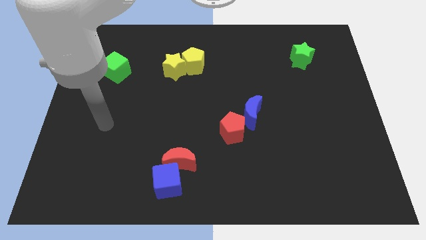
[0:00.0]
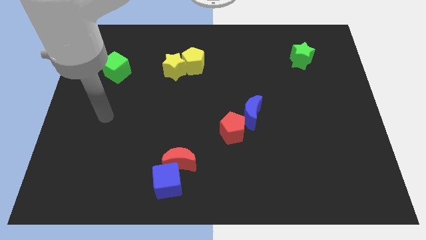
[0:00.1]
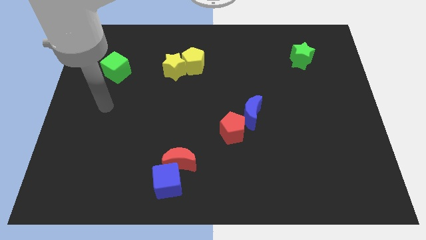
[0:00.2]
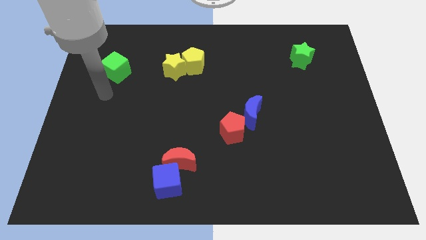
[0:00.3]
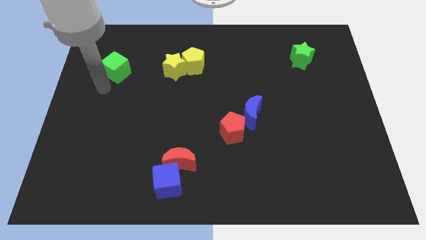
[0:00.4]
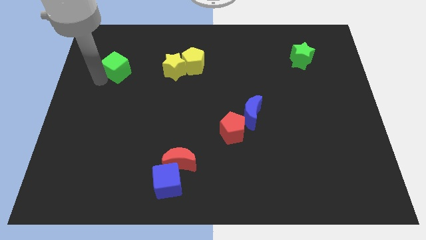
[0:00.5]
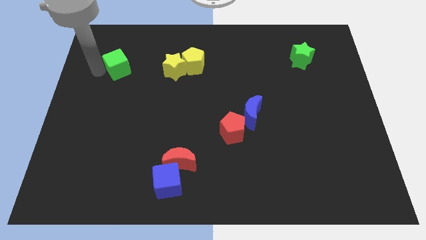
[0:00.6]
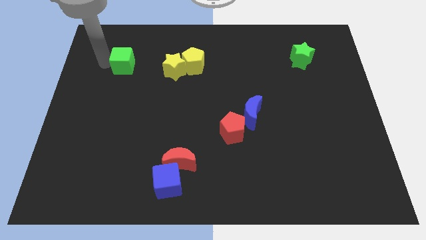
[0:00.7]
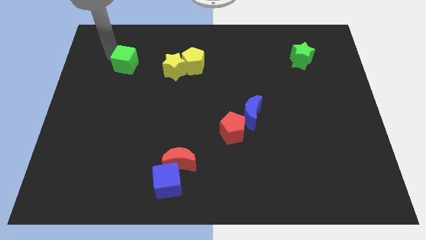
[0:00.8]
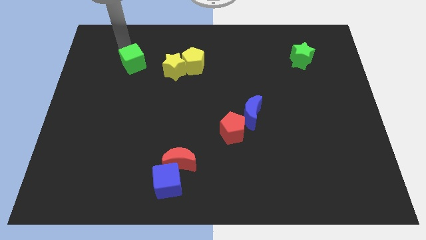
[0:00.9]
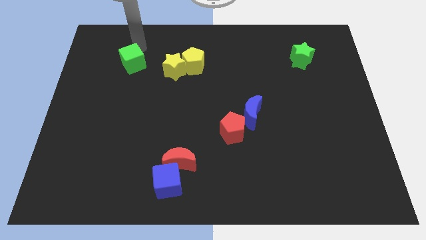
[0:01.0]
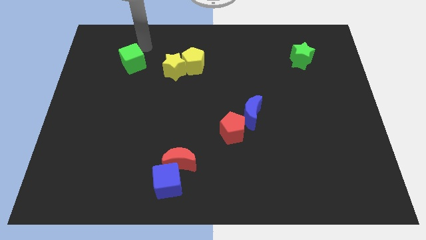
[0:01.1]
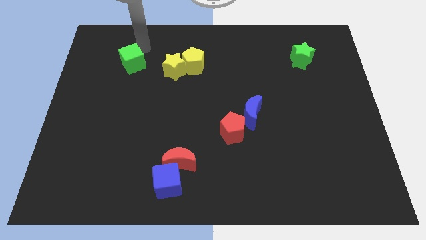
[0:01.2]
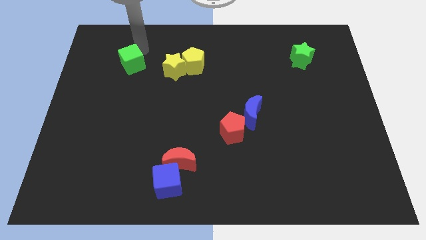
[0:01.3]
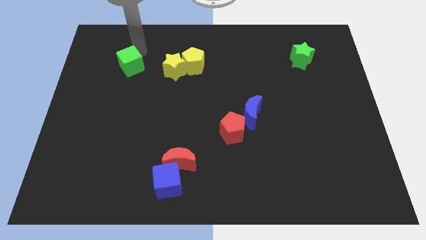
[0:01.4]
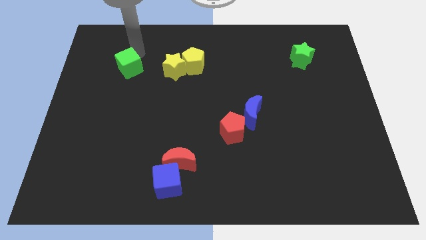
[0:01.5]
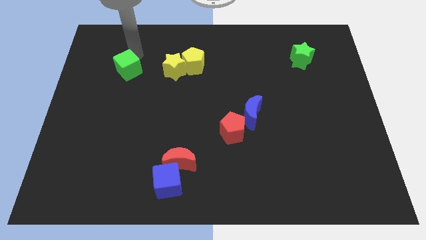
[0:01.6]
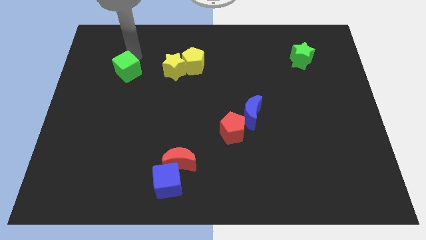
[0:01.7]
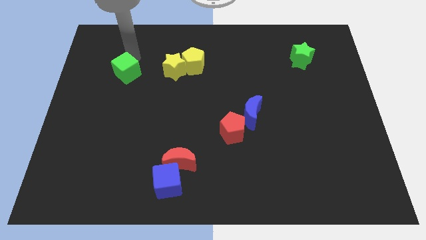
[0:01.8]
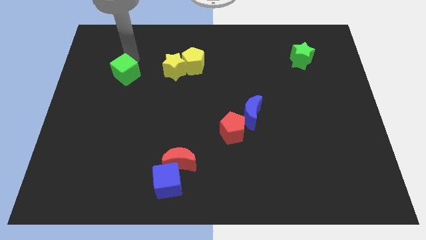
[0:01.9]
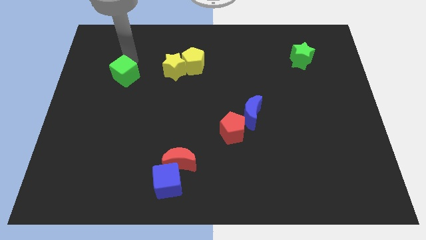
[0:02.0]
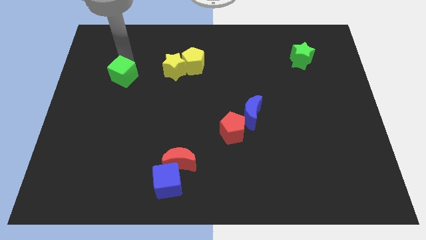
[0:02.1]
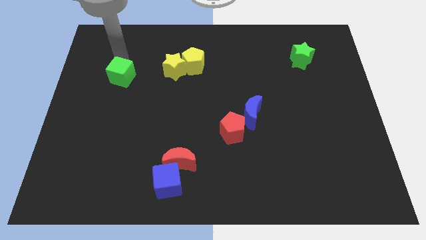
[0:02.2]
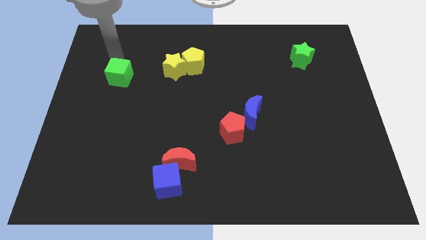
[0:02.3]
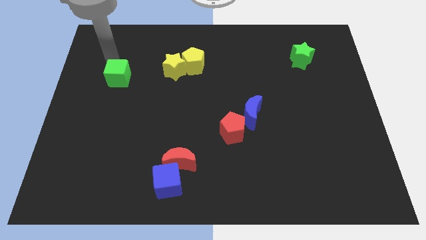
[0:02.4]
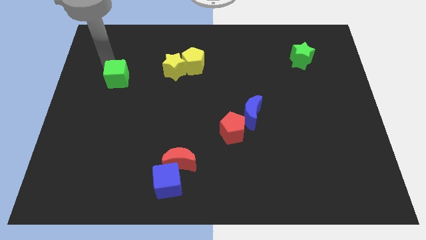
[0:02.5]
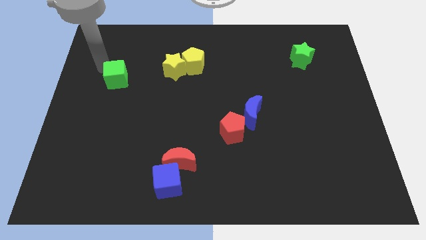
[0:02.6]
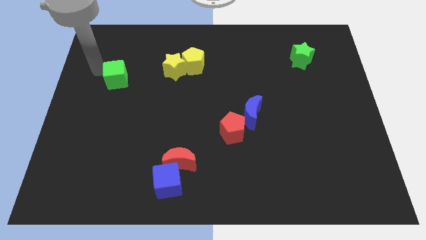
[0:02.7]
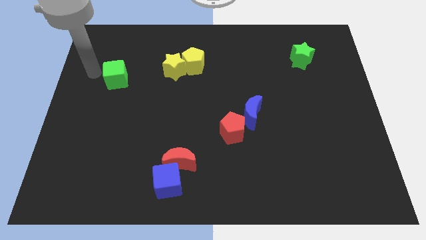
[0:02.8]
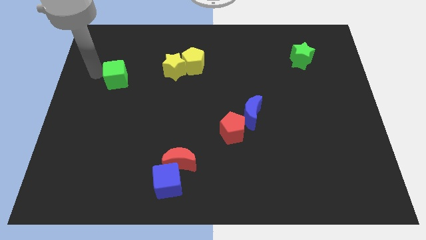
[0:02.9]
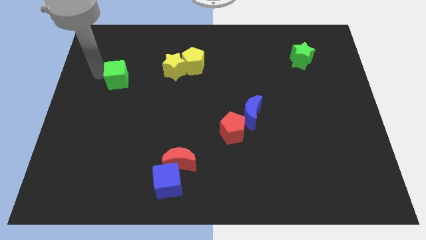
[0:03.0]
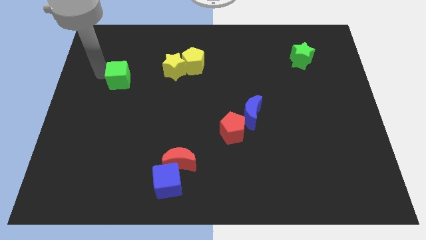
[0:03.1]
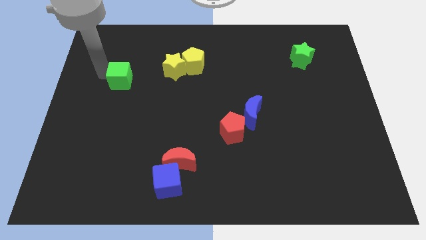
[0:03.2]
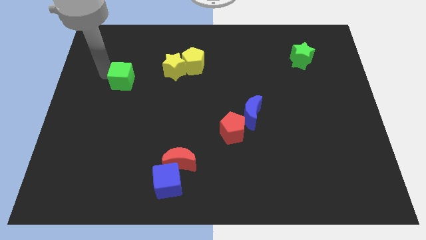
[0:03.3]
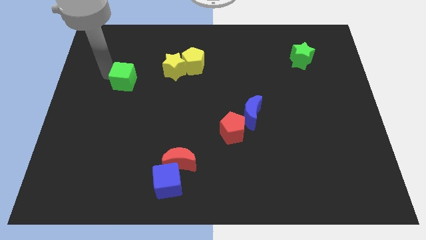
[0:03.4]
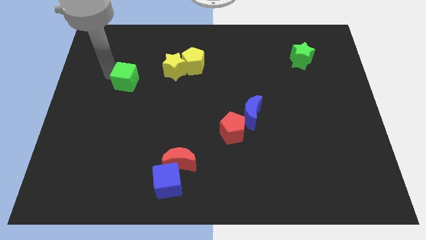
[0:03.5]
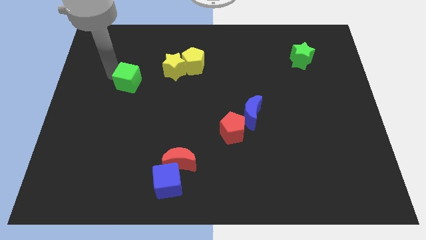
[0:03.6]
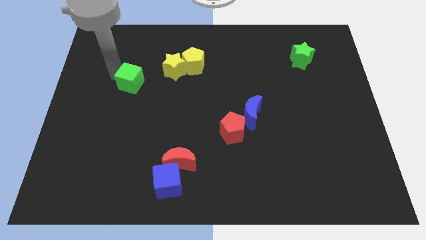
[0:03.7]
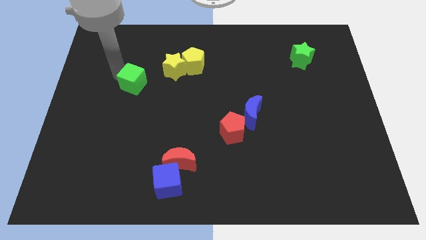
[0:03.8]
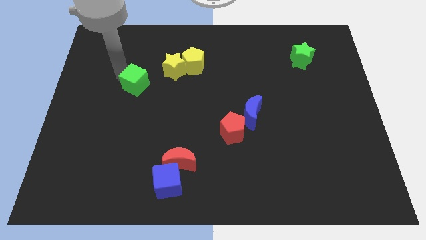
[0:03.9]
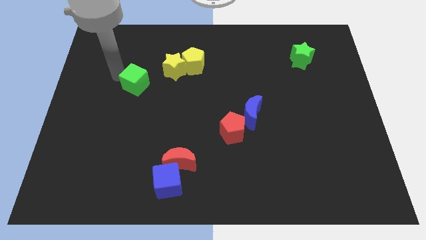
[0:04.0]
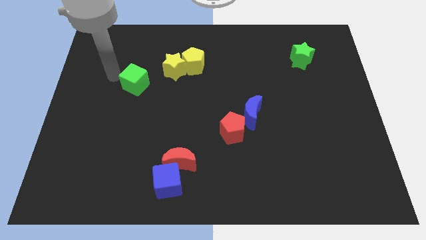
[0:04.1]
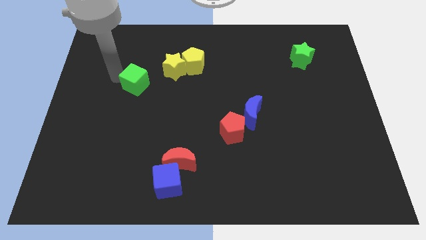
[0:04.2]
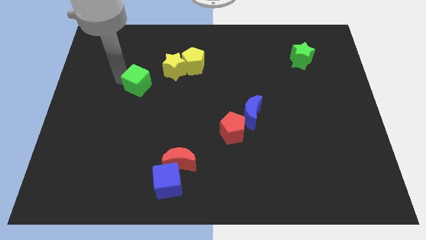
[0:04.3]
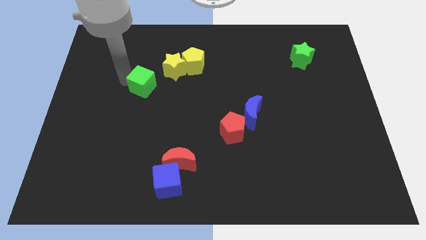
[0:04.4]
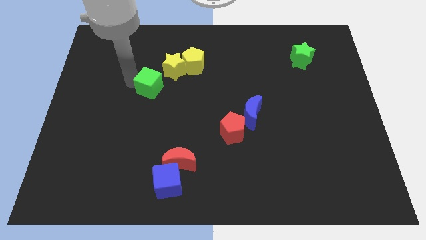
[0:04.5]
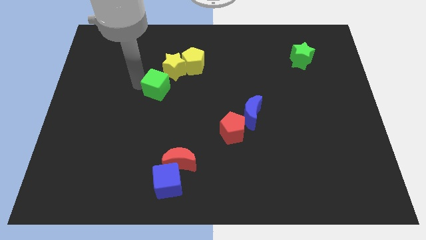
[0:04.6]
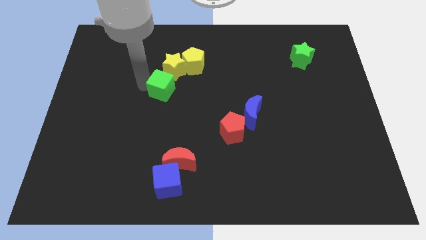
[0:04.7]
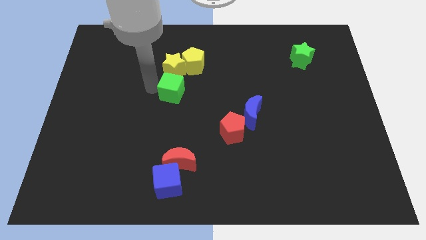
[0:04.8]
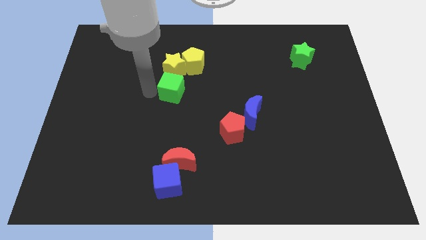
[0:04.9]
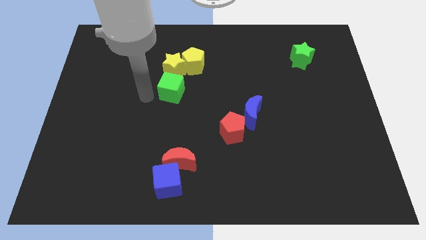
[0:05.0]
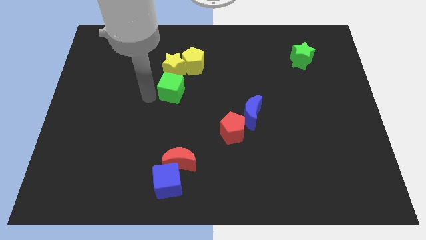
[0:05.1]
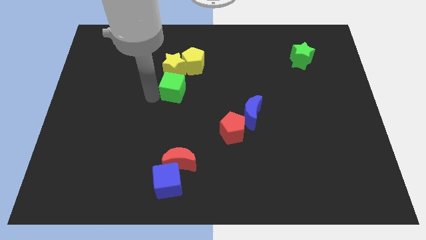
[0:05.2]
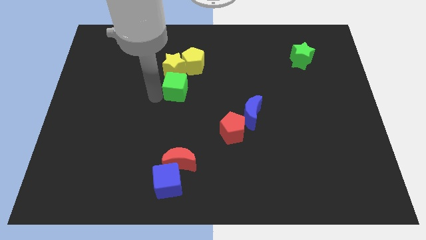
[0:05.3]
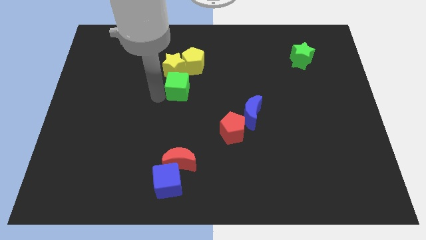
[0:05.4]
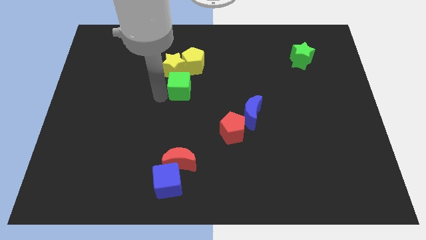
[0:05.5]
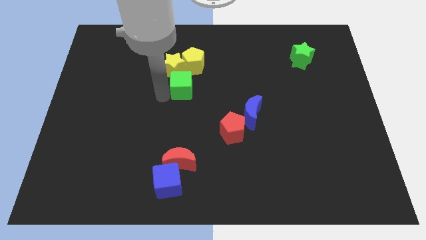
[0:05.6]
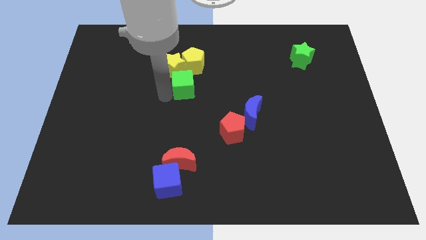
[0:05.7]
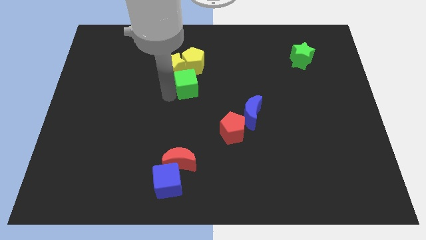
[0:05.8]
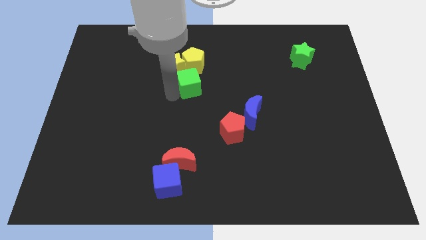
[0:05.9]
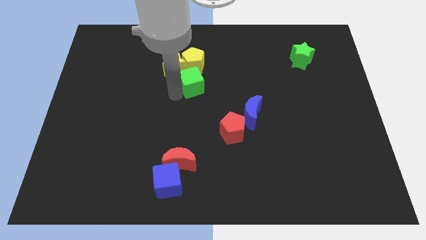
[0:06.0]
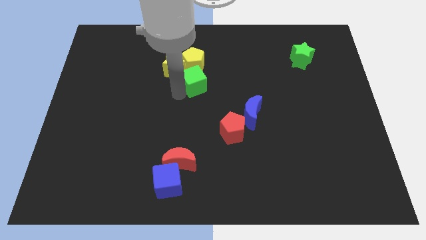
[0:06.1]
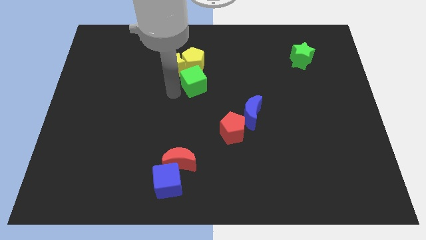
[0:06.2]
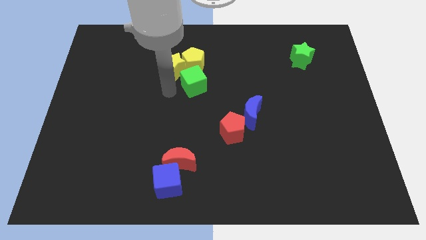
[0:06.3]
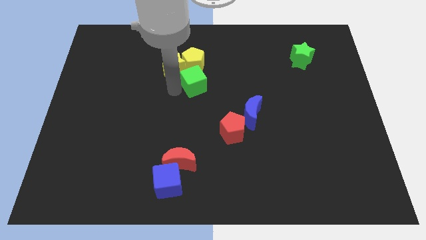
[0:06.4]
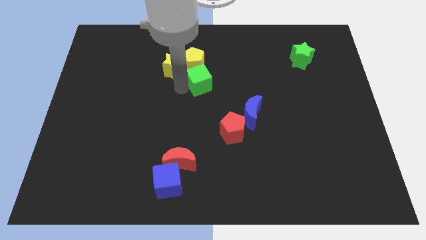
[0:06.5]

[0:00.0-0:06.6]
slide the green cube right

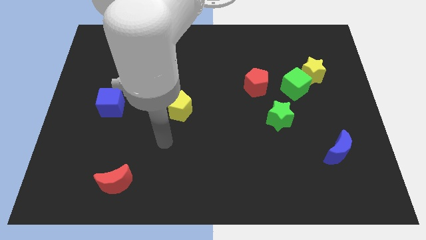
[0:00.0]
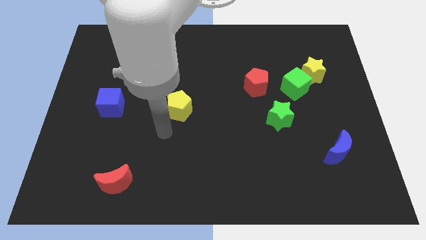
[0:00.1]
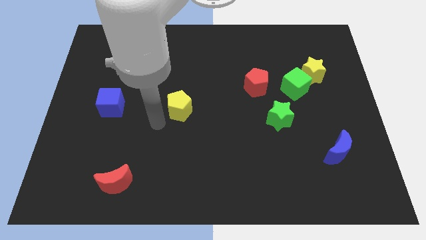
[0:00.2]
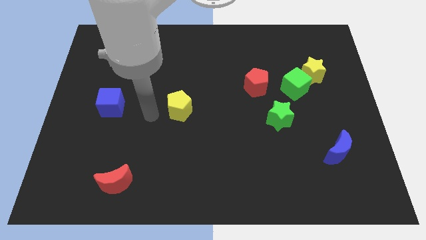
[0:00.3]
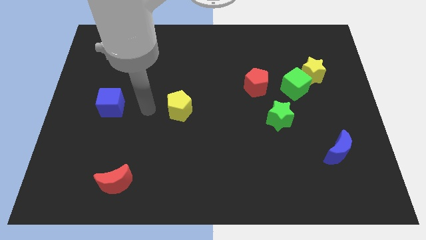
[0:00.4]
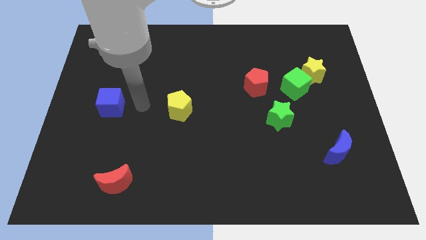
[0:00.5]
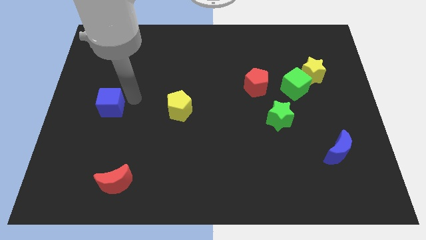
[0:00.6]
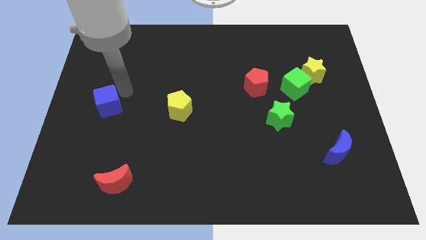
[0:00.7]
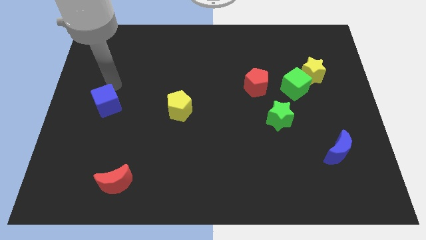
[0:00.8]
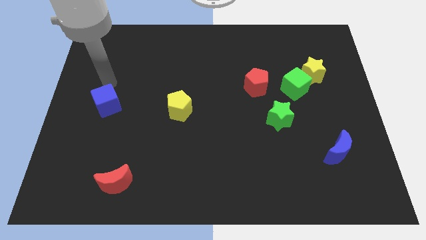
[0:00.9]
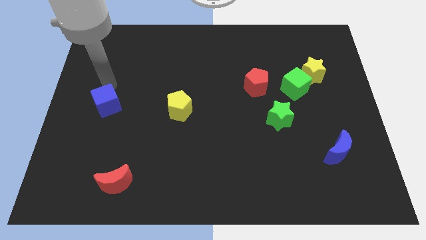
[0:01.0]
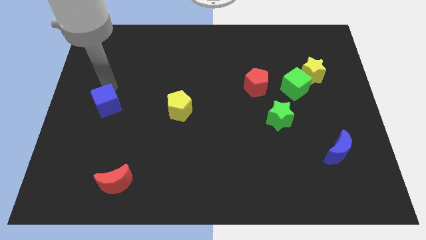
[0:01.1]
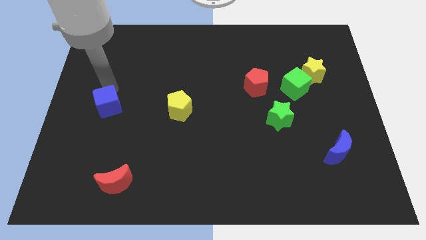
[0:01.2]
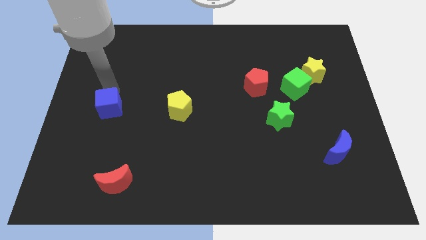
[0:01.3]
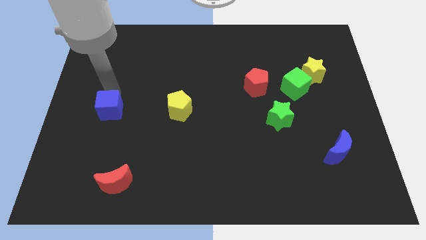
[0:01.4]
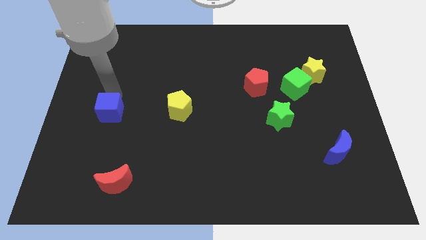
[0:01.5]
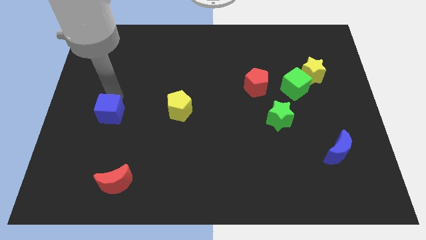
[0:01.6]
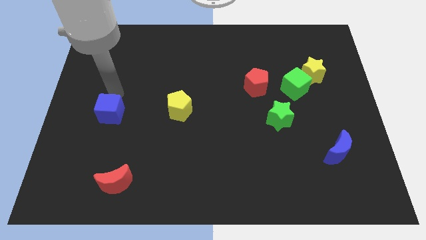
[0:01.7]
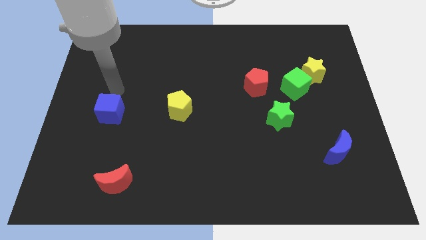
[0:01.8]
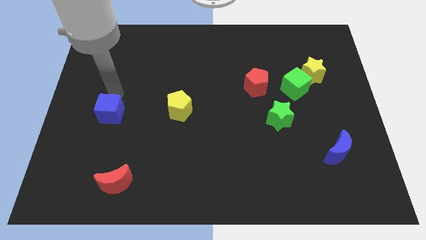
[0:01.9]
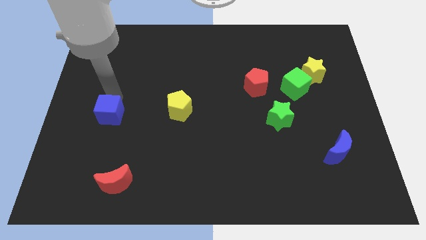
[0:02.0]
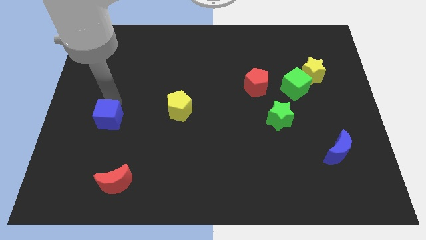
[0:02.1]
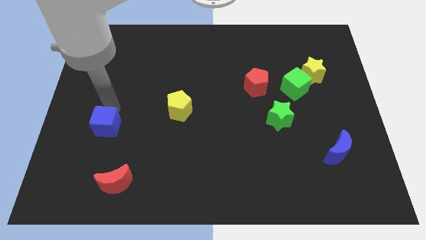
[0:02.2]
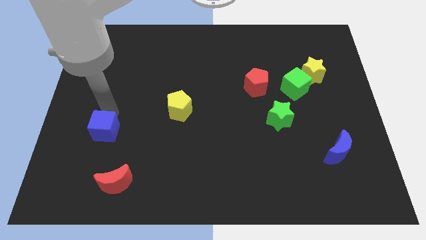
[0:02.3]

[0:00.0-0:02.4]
slightly move the blue cube down
